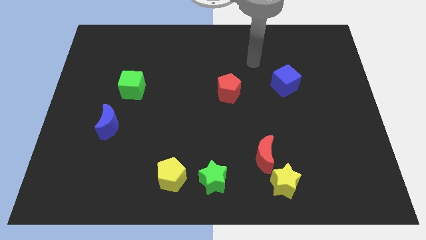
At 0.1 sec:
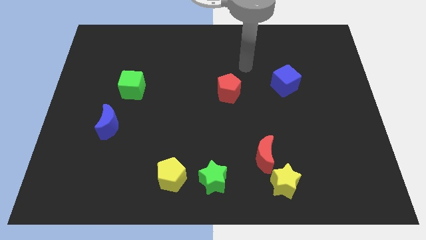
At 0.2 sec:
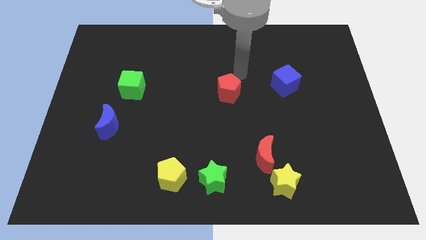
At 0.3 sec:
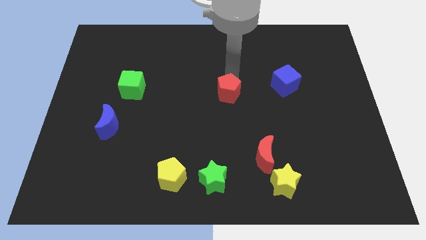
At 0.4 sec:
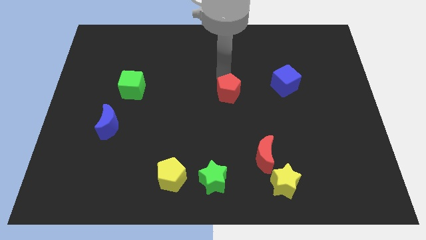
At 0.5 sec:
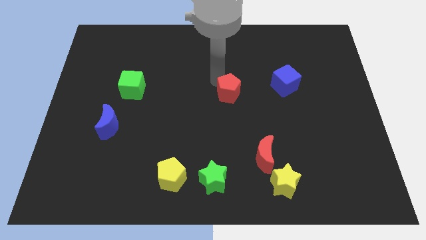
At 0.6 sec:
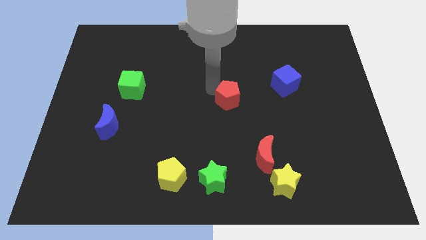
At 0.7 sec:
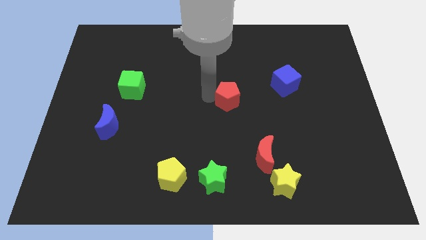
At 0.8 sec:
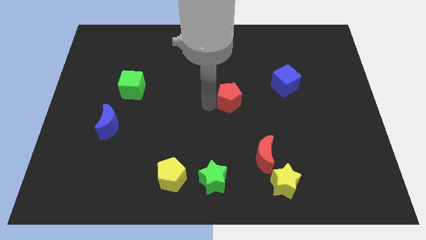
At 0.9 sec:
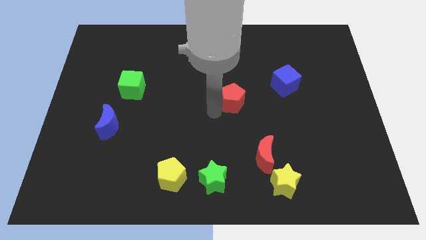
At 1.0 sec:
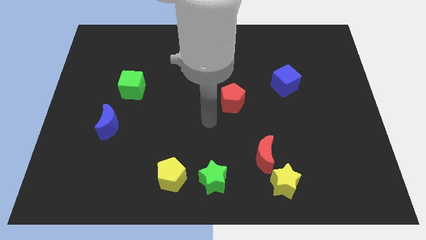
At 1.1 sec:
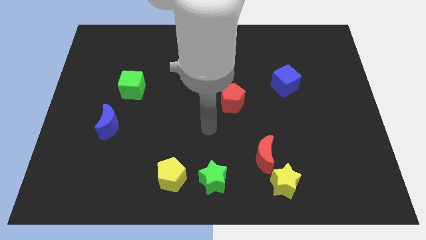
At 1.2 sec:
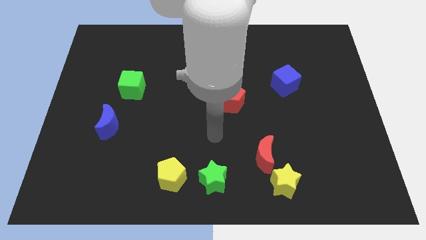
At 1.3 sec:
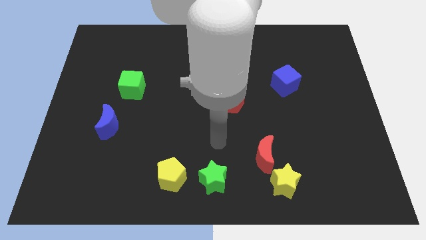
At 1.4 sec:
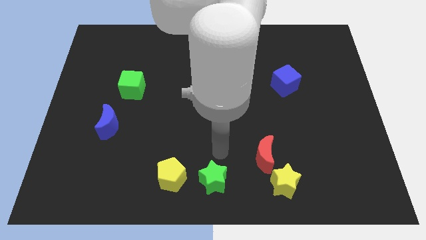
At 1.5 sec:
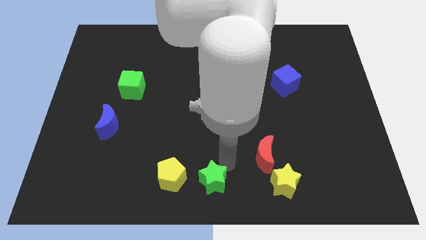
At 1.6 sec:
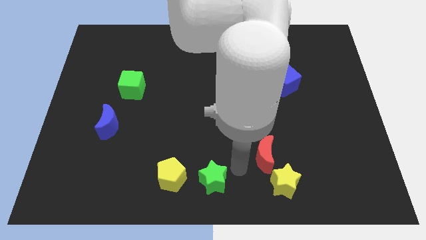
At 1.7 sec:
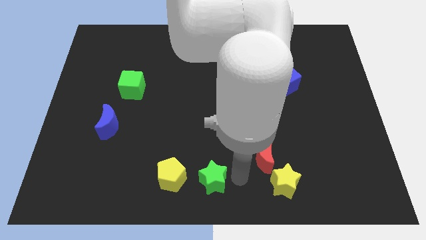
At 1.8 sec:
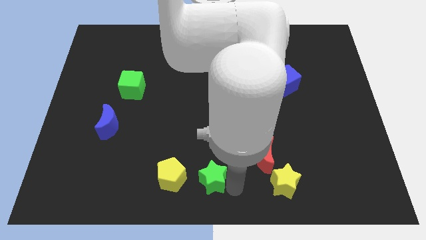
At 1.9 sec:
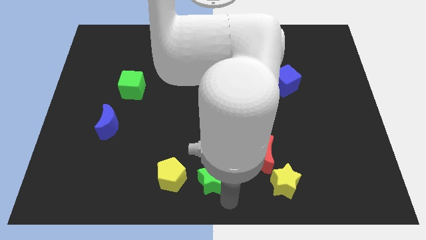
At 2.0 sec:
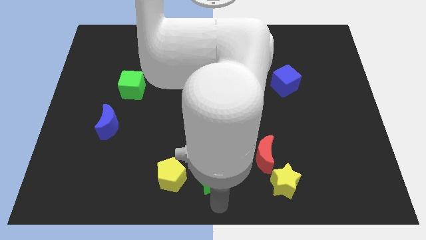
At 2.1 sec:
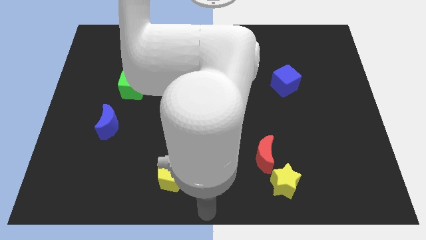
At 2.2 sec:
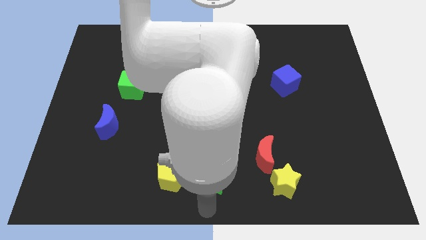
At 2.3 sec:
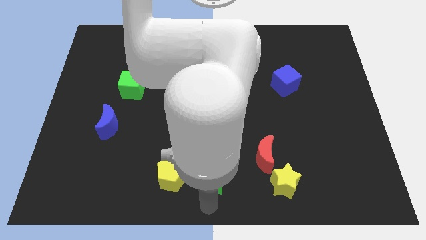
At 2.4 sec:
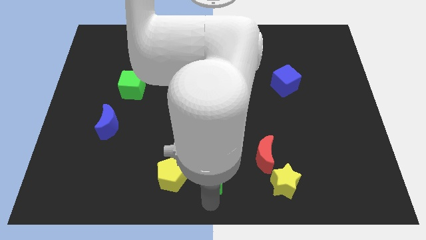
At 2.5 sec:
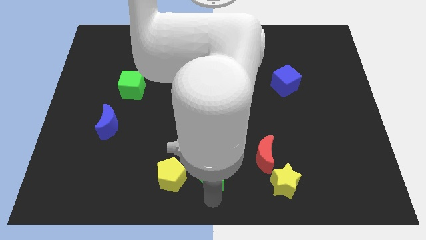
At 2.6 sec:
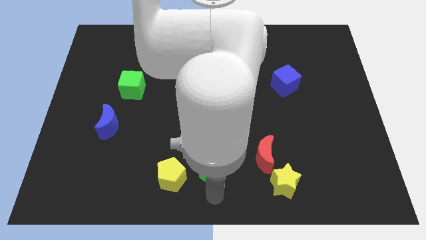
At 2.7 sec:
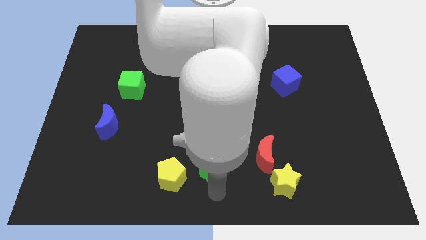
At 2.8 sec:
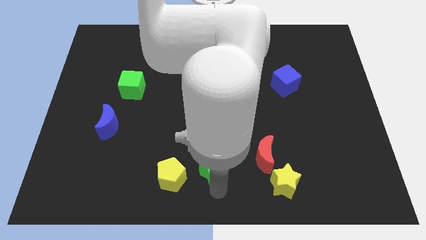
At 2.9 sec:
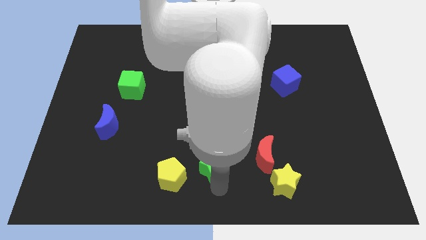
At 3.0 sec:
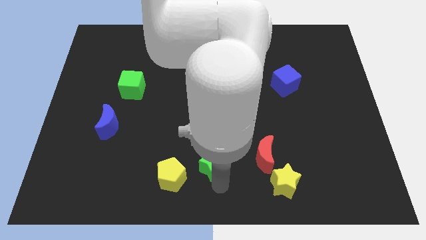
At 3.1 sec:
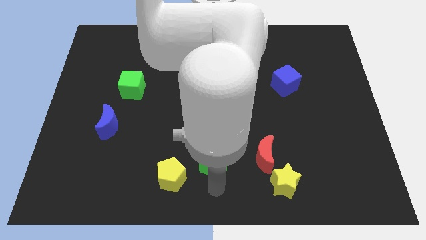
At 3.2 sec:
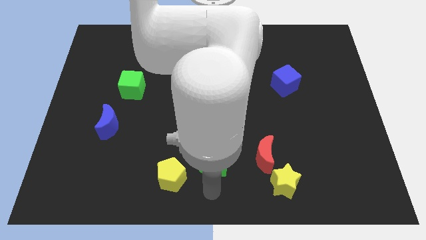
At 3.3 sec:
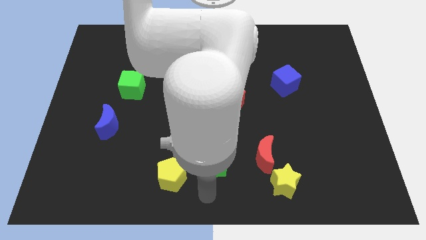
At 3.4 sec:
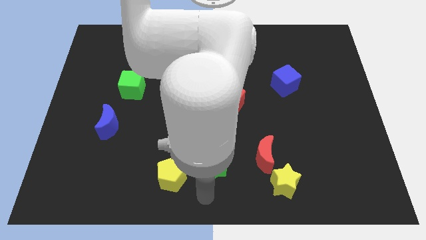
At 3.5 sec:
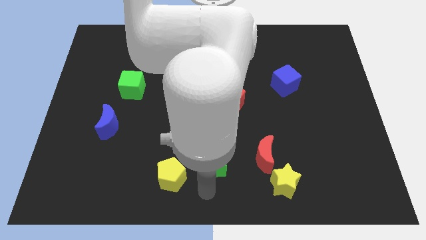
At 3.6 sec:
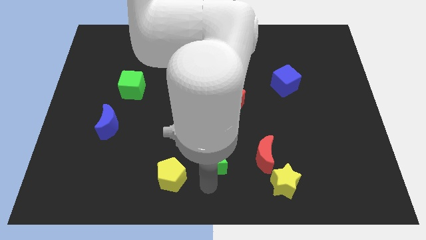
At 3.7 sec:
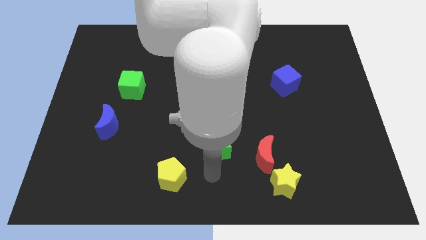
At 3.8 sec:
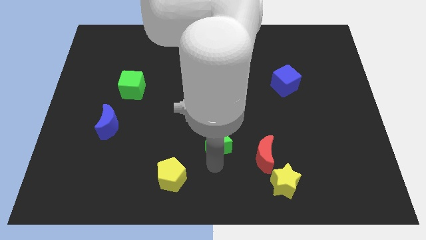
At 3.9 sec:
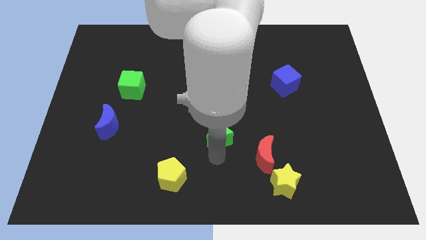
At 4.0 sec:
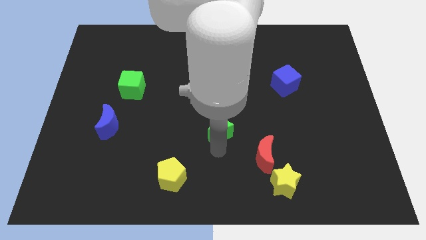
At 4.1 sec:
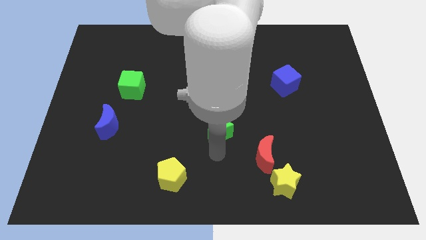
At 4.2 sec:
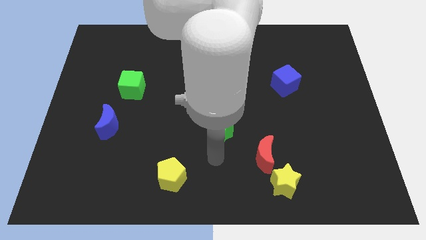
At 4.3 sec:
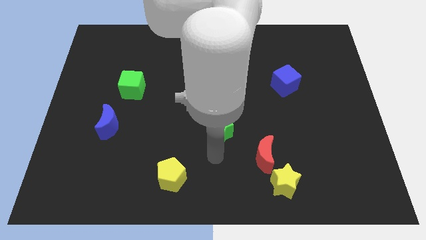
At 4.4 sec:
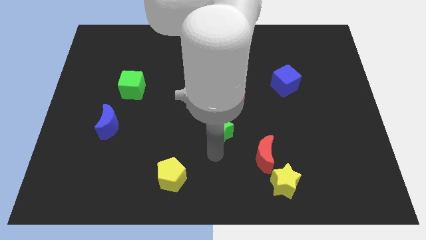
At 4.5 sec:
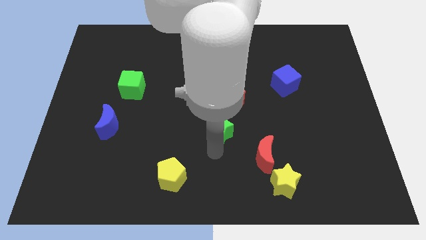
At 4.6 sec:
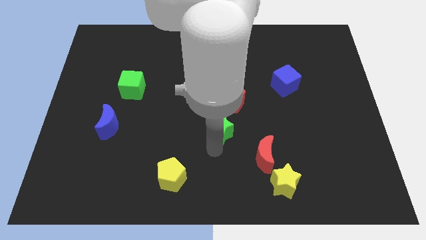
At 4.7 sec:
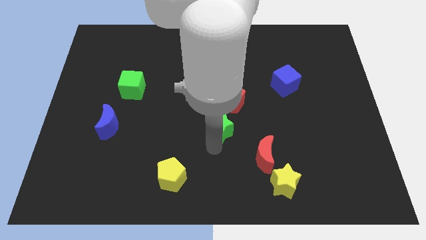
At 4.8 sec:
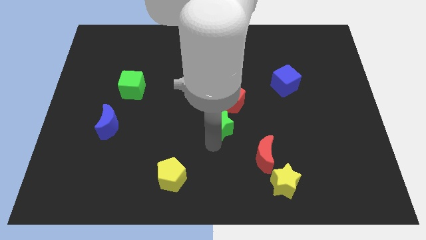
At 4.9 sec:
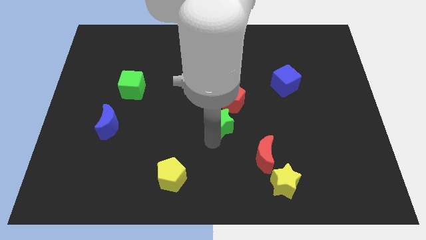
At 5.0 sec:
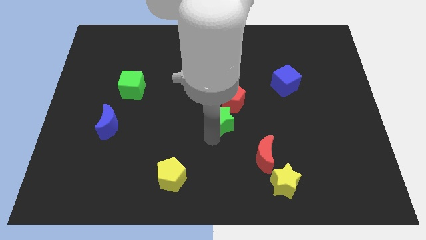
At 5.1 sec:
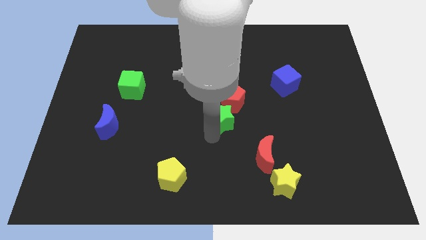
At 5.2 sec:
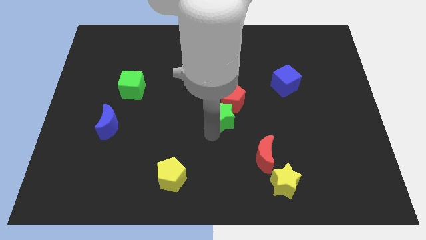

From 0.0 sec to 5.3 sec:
push the green star next to the red pentagon

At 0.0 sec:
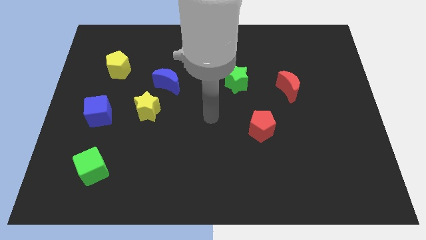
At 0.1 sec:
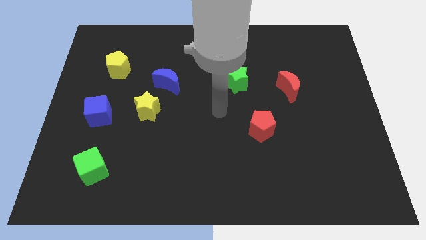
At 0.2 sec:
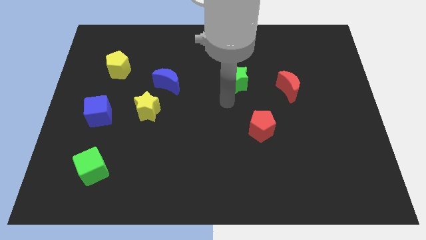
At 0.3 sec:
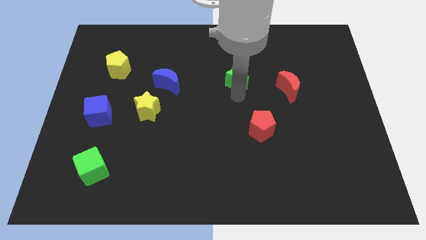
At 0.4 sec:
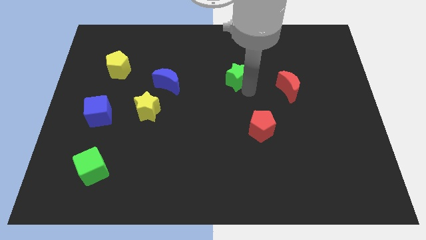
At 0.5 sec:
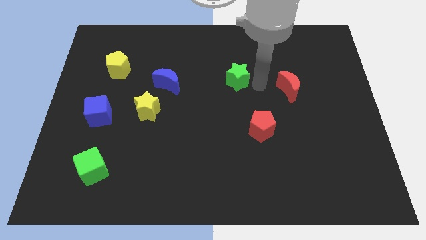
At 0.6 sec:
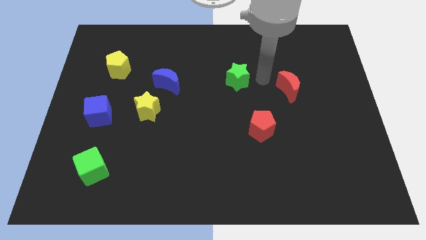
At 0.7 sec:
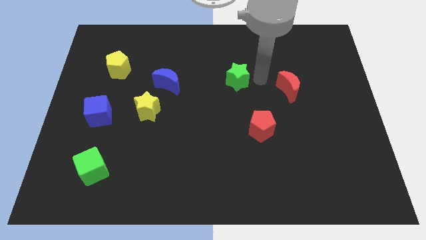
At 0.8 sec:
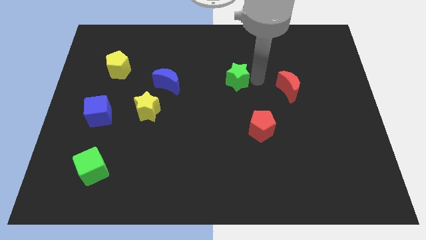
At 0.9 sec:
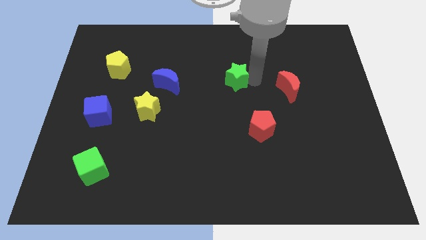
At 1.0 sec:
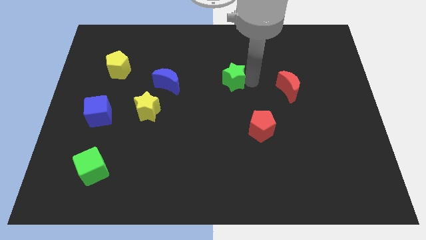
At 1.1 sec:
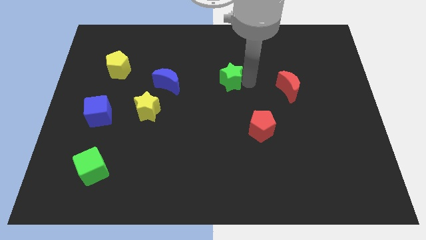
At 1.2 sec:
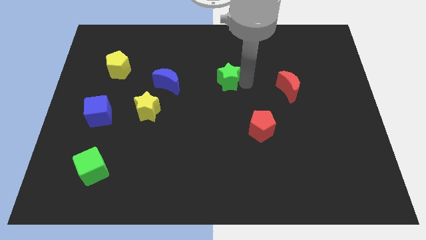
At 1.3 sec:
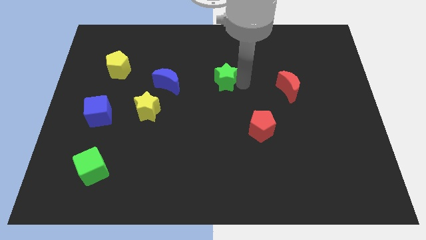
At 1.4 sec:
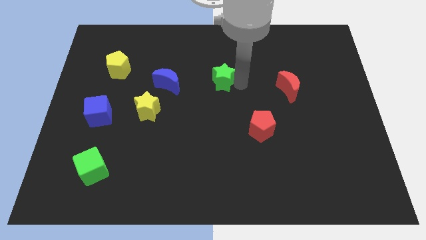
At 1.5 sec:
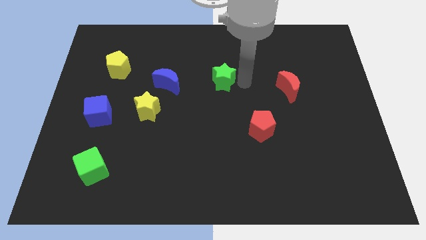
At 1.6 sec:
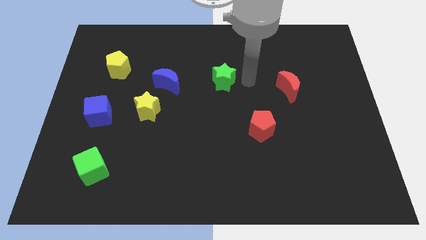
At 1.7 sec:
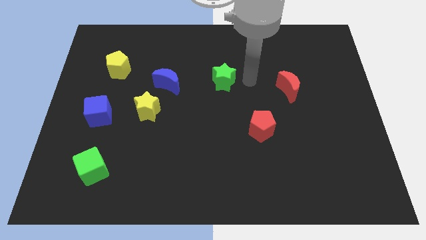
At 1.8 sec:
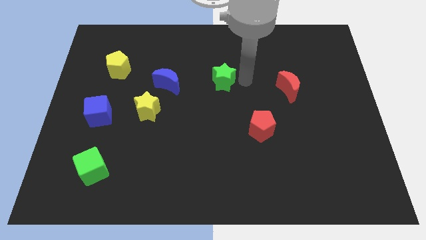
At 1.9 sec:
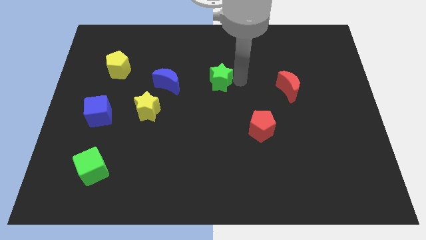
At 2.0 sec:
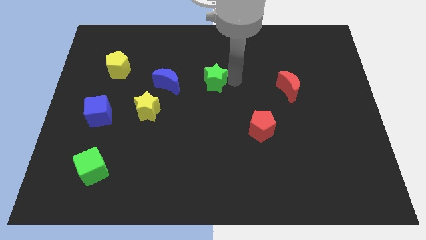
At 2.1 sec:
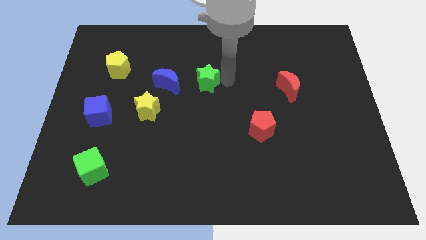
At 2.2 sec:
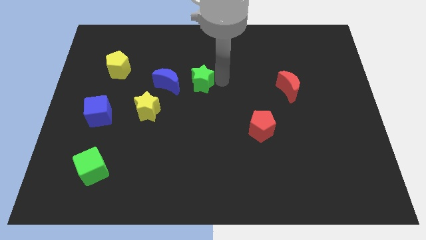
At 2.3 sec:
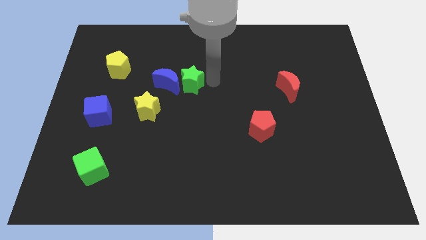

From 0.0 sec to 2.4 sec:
push the green star towards the blue moon
